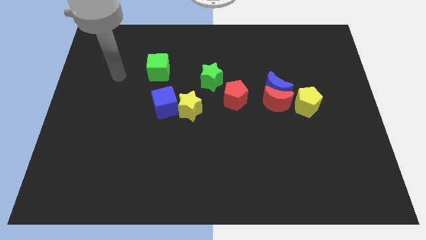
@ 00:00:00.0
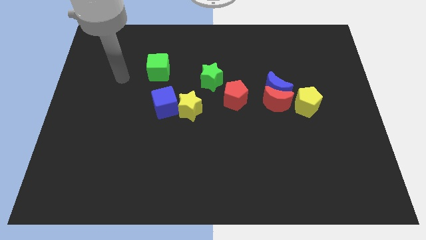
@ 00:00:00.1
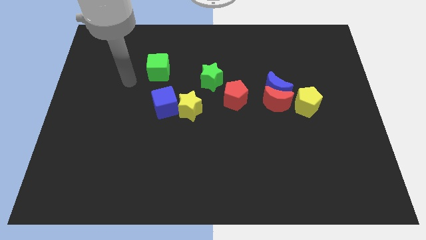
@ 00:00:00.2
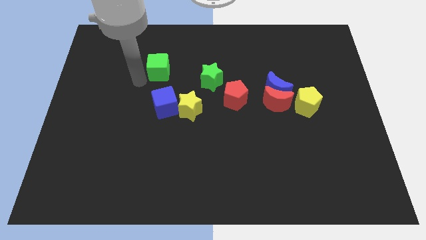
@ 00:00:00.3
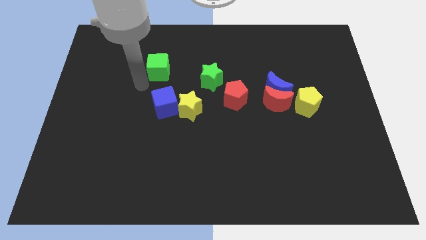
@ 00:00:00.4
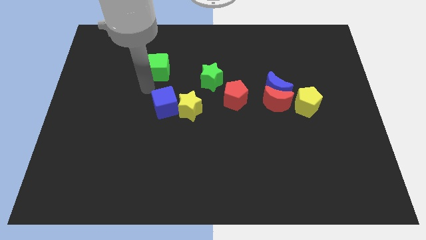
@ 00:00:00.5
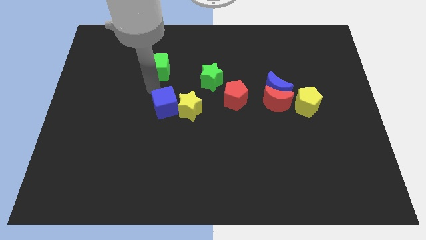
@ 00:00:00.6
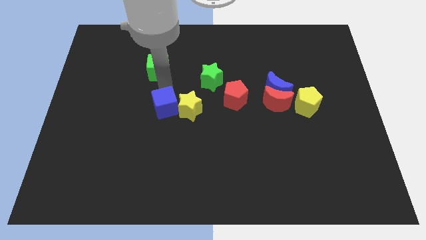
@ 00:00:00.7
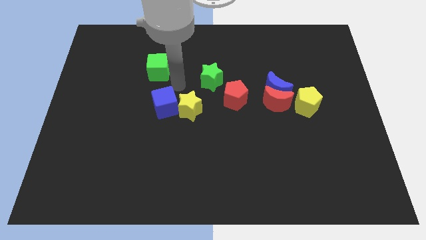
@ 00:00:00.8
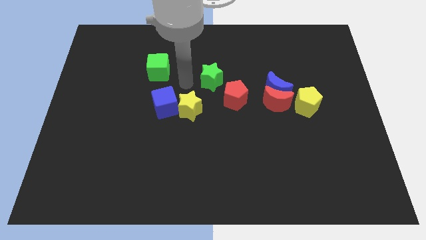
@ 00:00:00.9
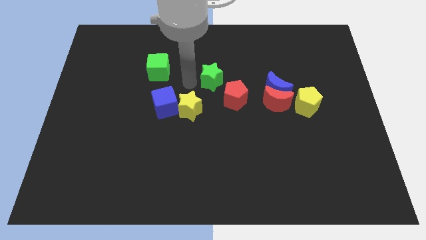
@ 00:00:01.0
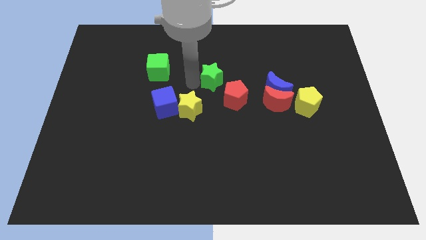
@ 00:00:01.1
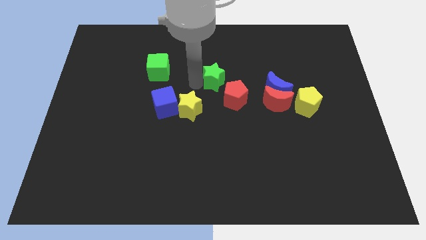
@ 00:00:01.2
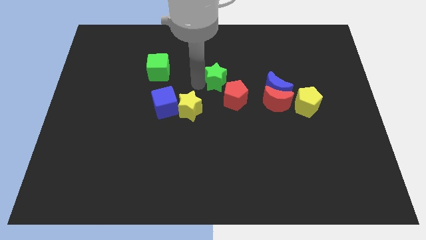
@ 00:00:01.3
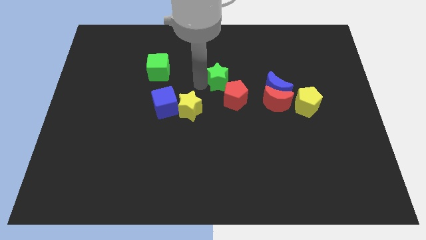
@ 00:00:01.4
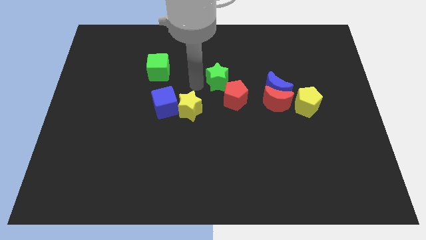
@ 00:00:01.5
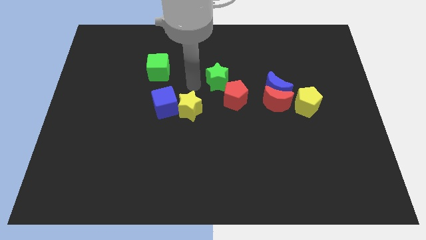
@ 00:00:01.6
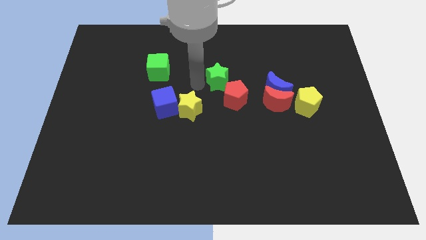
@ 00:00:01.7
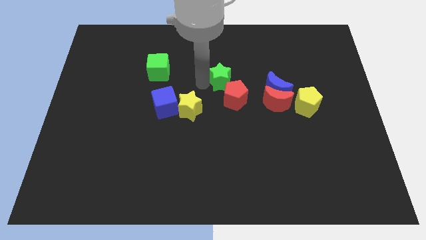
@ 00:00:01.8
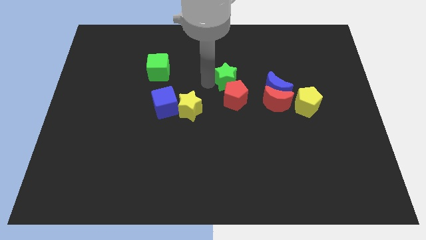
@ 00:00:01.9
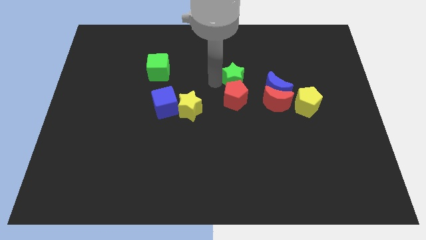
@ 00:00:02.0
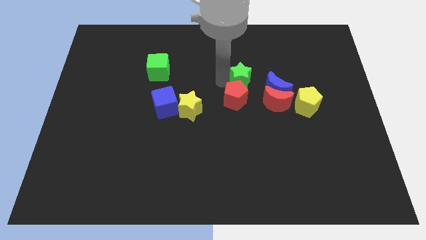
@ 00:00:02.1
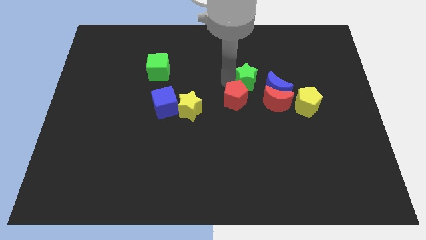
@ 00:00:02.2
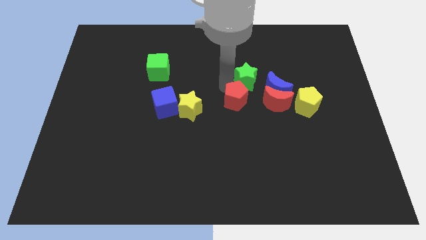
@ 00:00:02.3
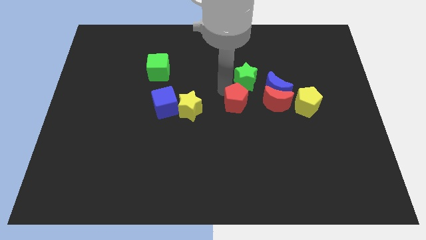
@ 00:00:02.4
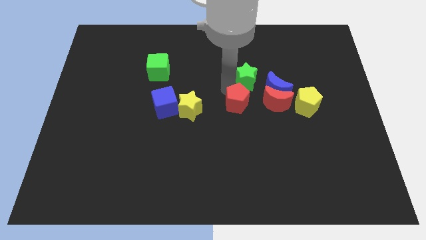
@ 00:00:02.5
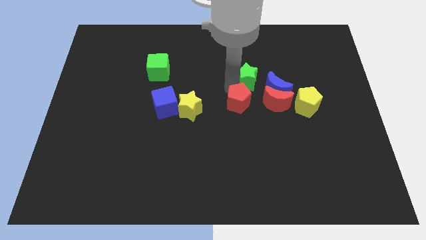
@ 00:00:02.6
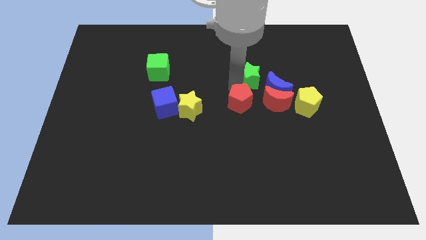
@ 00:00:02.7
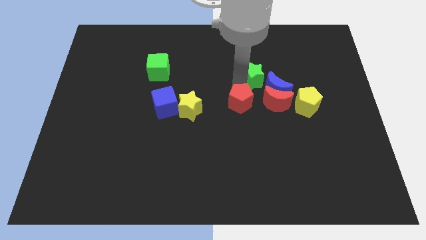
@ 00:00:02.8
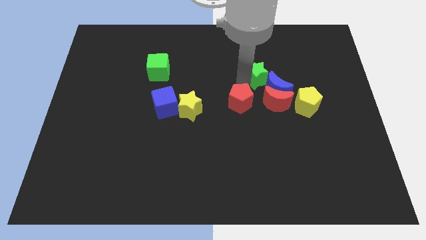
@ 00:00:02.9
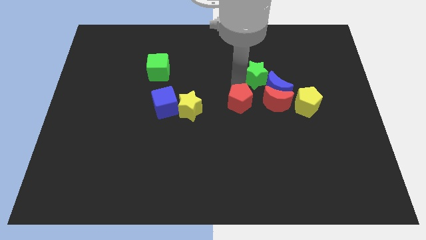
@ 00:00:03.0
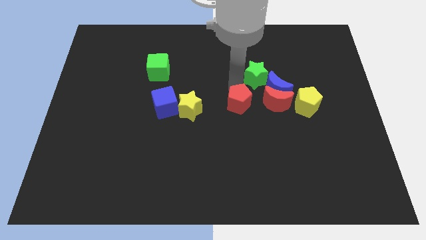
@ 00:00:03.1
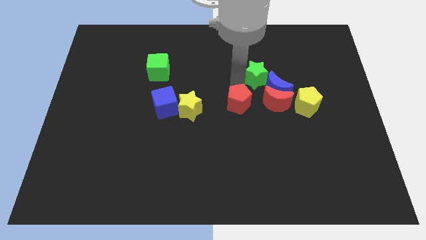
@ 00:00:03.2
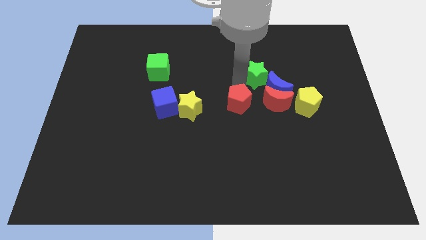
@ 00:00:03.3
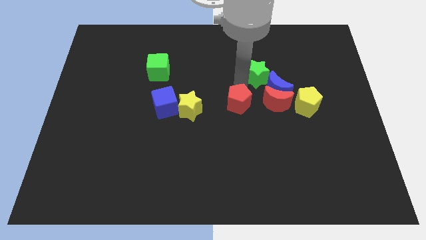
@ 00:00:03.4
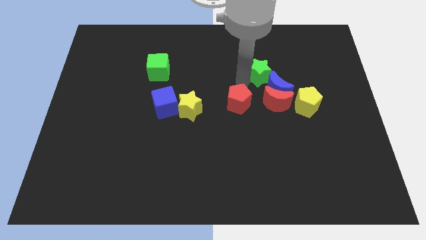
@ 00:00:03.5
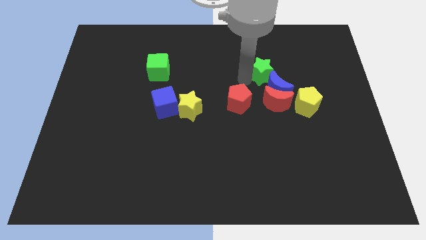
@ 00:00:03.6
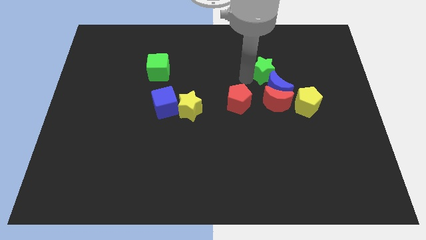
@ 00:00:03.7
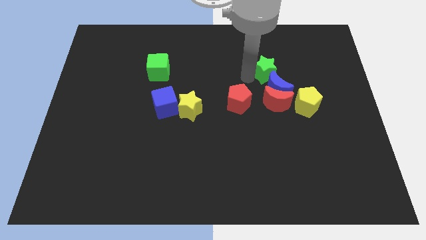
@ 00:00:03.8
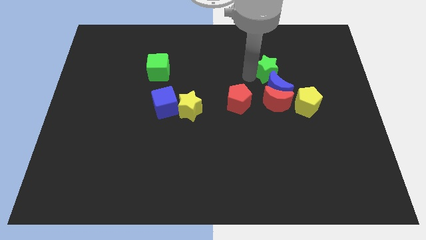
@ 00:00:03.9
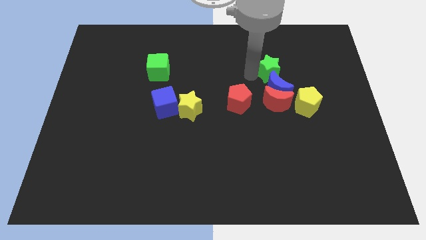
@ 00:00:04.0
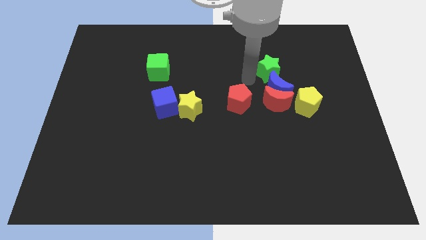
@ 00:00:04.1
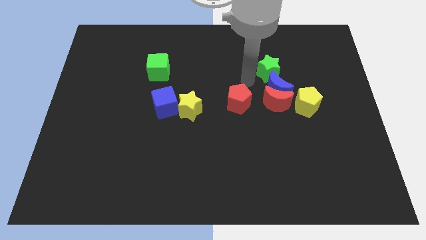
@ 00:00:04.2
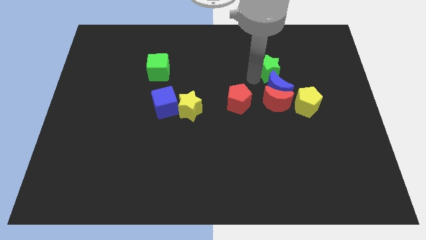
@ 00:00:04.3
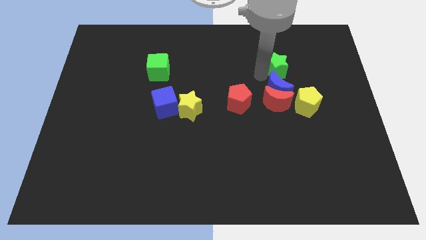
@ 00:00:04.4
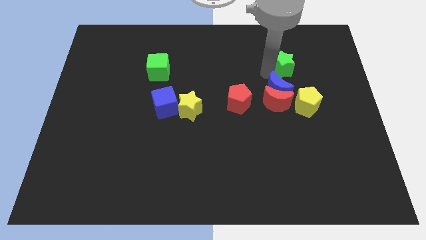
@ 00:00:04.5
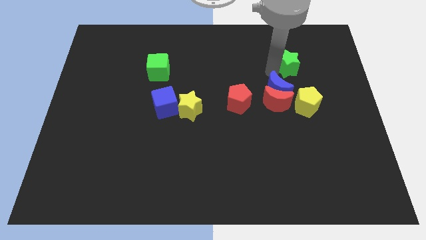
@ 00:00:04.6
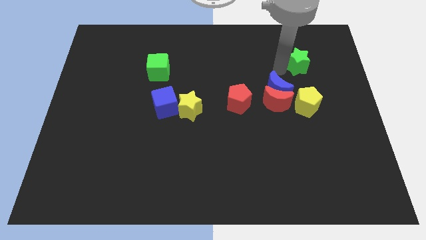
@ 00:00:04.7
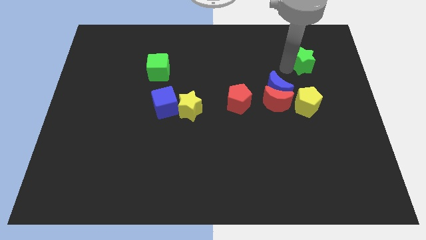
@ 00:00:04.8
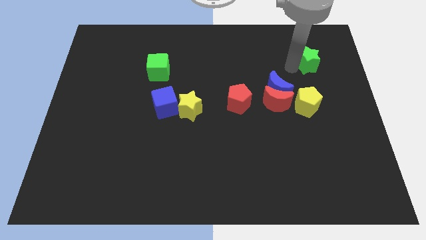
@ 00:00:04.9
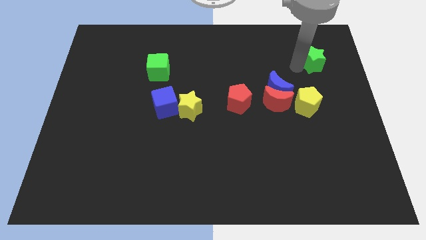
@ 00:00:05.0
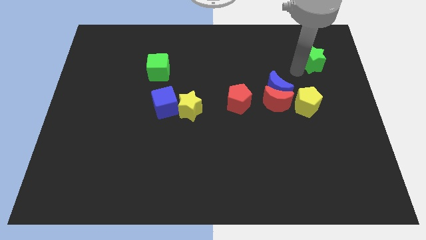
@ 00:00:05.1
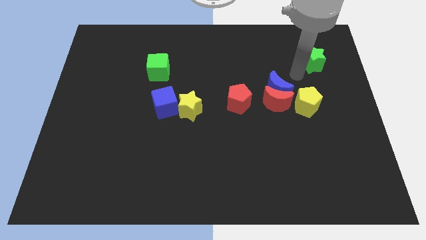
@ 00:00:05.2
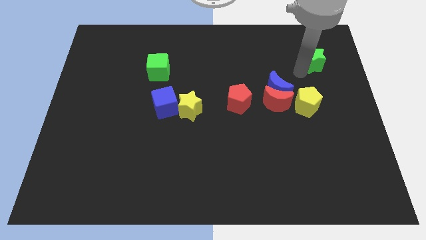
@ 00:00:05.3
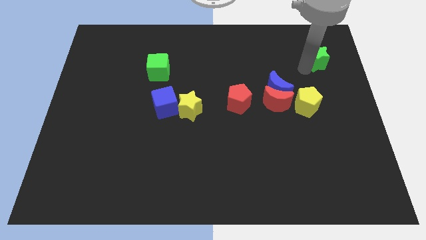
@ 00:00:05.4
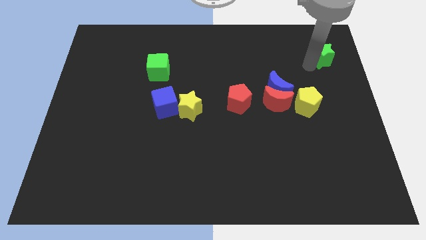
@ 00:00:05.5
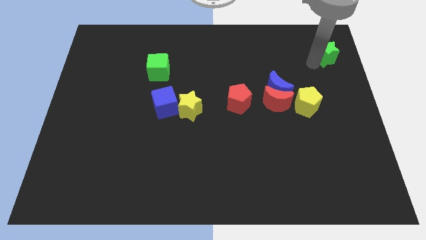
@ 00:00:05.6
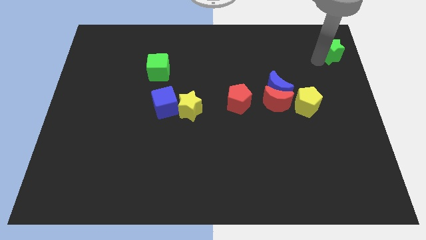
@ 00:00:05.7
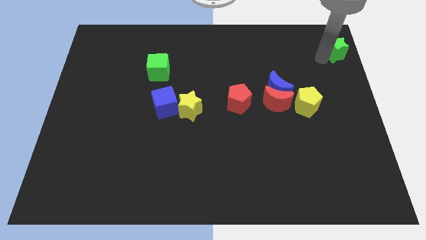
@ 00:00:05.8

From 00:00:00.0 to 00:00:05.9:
move the green star to the top right

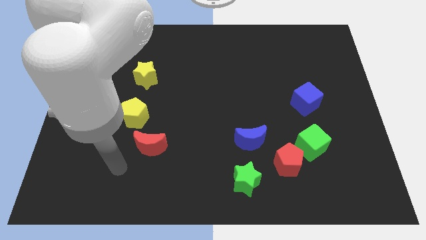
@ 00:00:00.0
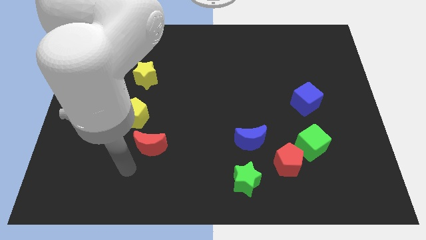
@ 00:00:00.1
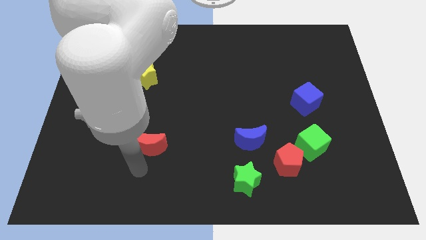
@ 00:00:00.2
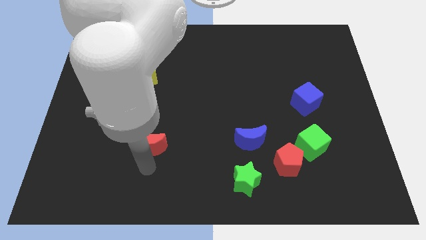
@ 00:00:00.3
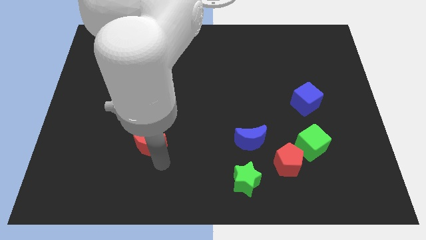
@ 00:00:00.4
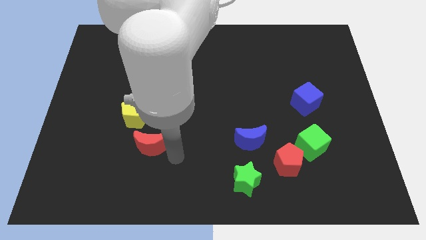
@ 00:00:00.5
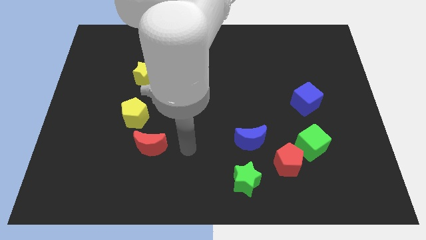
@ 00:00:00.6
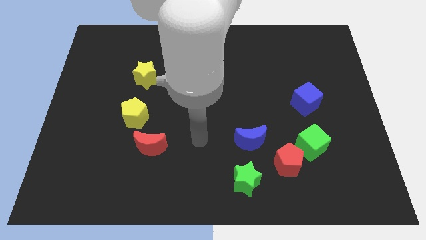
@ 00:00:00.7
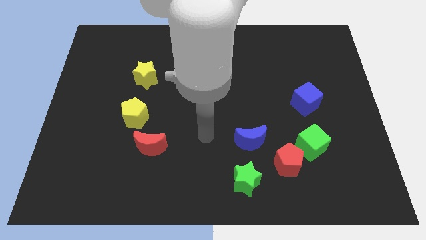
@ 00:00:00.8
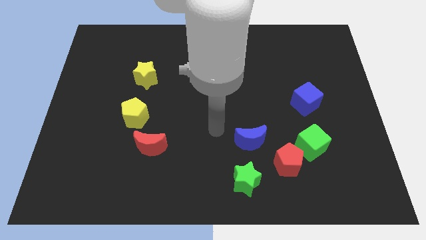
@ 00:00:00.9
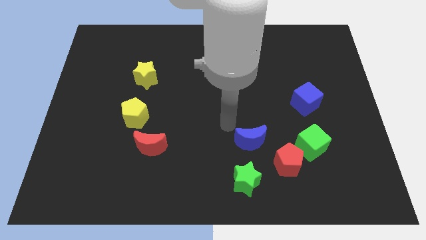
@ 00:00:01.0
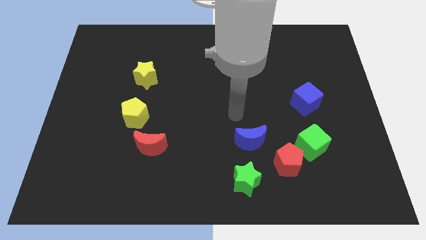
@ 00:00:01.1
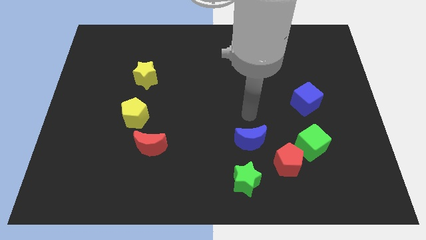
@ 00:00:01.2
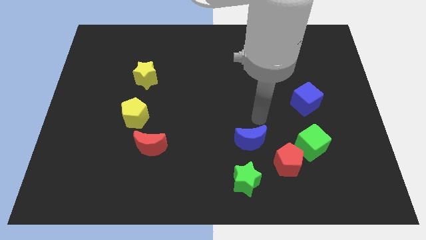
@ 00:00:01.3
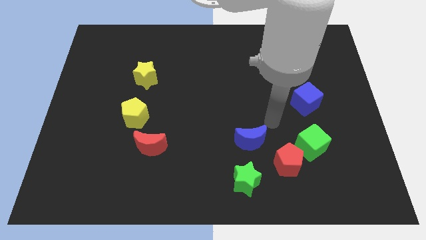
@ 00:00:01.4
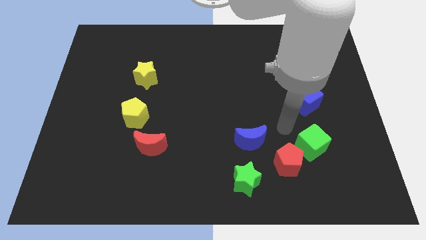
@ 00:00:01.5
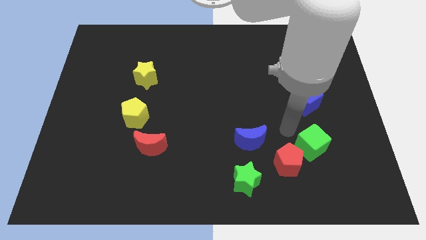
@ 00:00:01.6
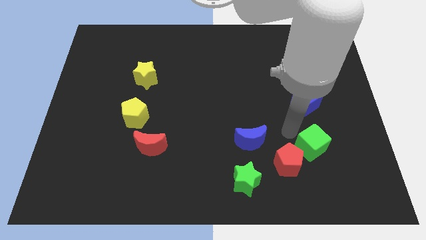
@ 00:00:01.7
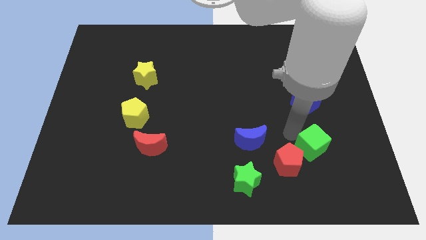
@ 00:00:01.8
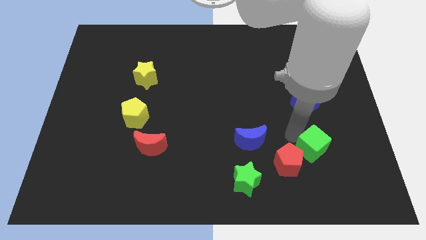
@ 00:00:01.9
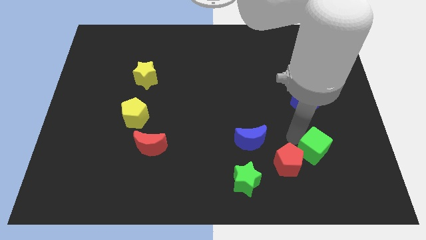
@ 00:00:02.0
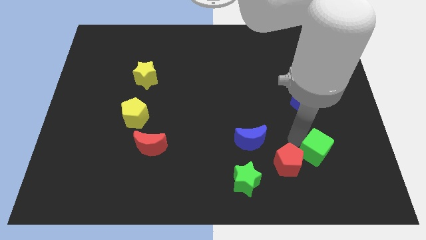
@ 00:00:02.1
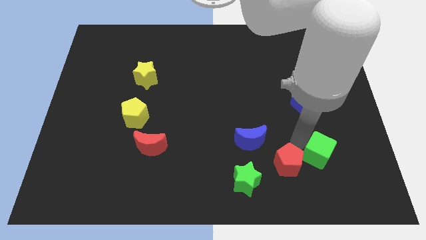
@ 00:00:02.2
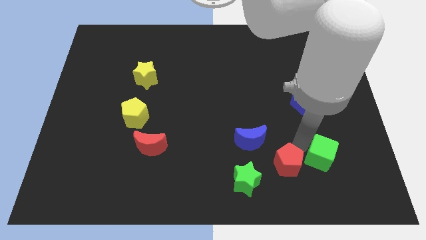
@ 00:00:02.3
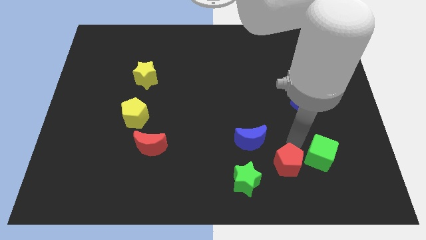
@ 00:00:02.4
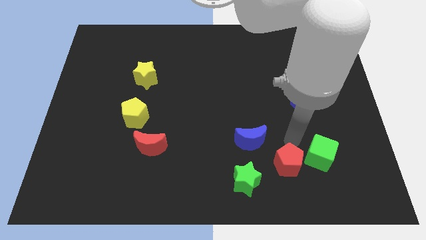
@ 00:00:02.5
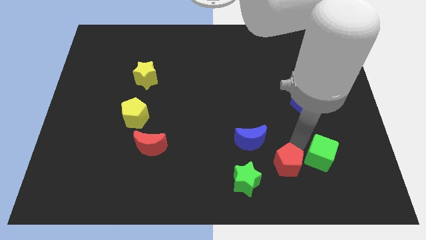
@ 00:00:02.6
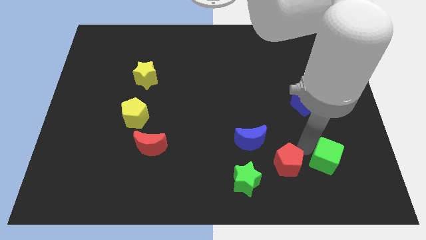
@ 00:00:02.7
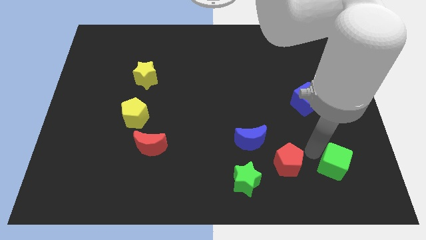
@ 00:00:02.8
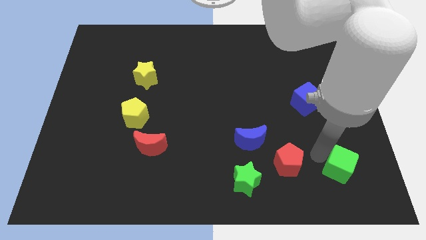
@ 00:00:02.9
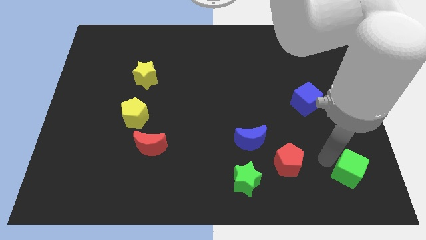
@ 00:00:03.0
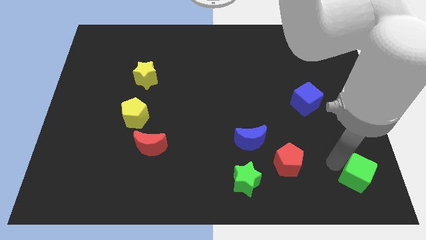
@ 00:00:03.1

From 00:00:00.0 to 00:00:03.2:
slide the green cube to the bottom right
